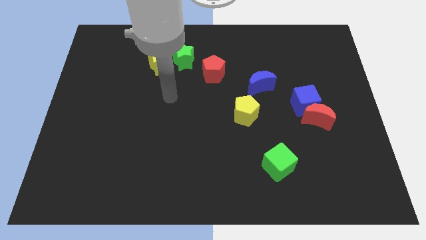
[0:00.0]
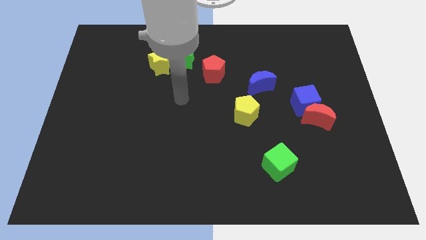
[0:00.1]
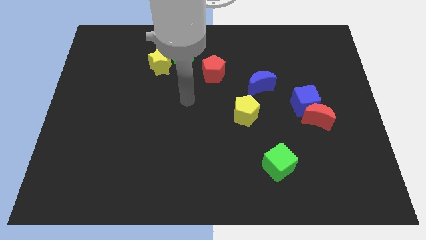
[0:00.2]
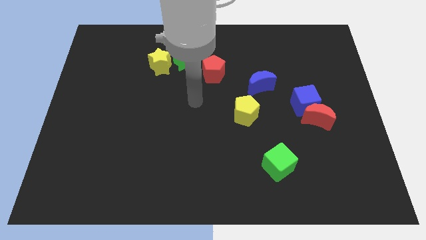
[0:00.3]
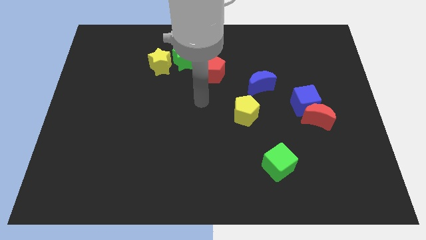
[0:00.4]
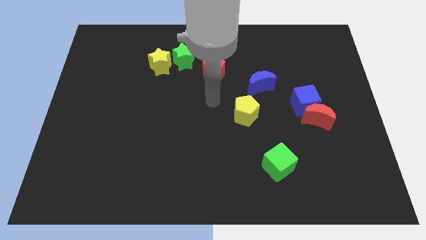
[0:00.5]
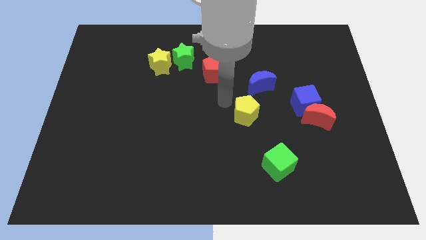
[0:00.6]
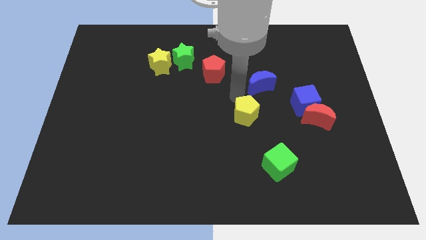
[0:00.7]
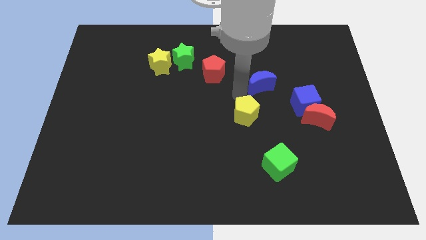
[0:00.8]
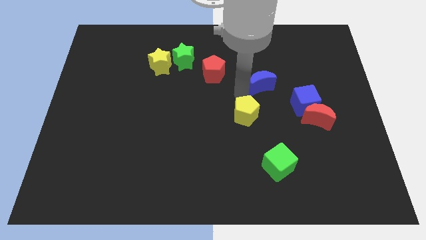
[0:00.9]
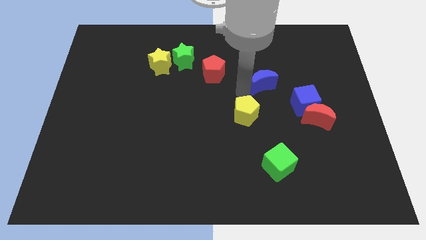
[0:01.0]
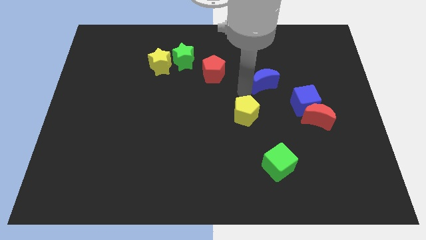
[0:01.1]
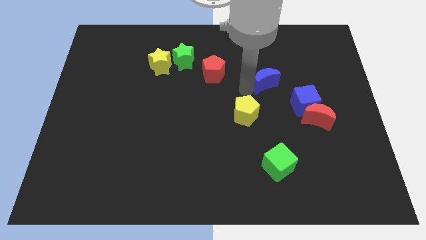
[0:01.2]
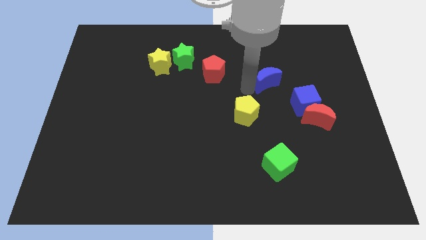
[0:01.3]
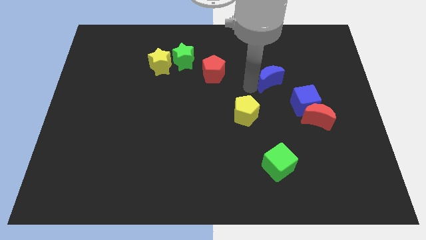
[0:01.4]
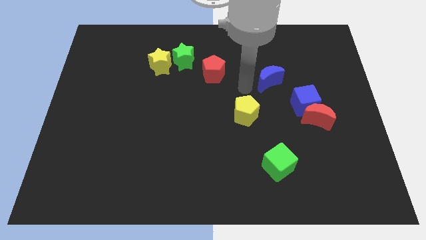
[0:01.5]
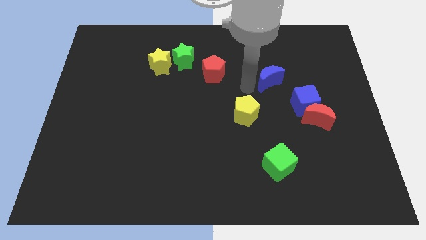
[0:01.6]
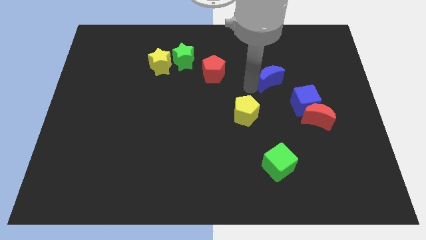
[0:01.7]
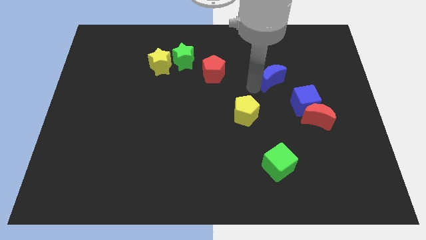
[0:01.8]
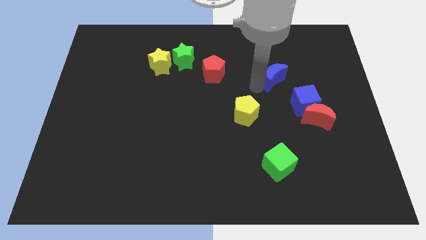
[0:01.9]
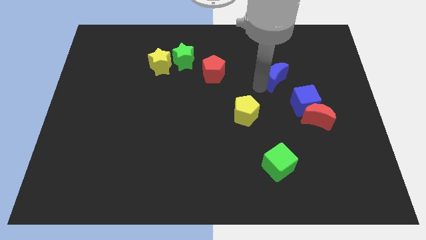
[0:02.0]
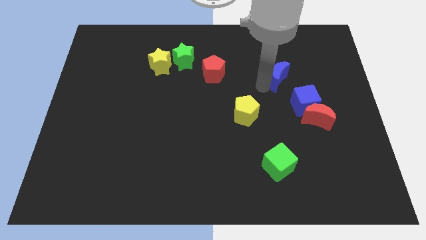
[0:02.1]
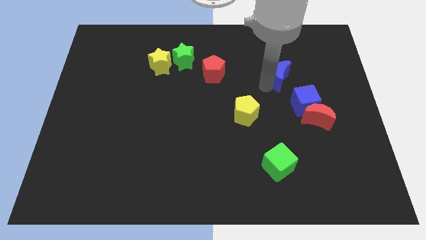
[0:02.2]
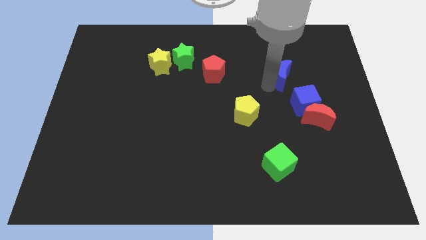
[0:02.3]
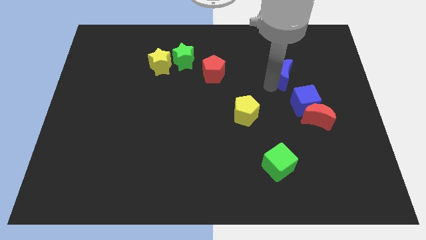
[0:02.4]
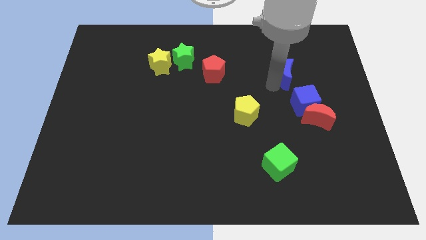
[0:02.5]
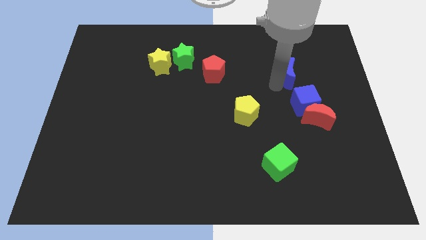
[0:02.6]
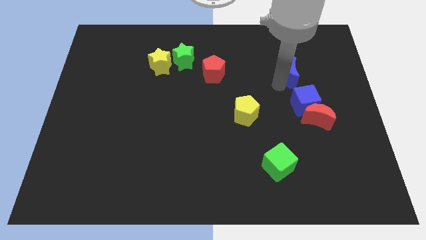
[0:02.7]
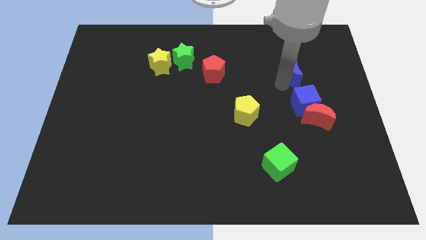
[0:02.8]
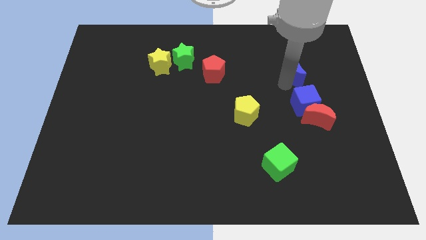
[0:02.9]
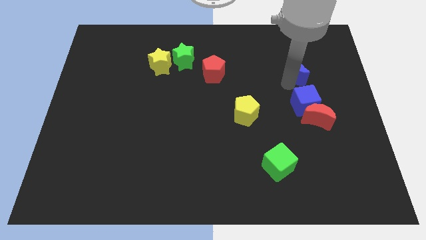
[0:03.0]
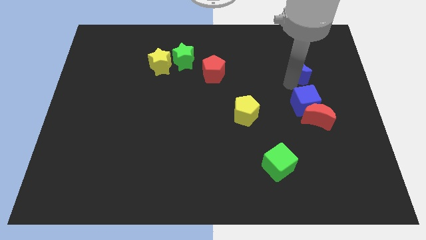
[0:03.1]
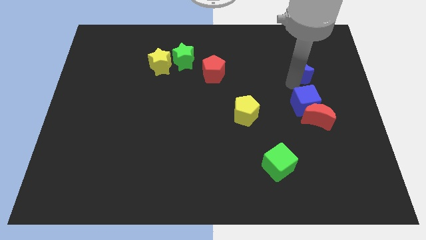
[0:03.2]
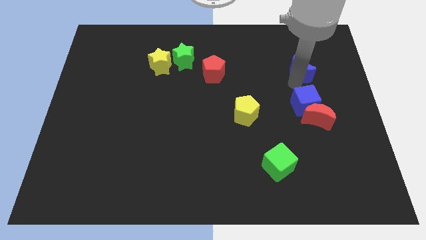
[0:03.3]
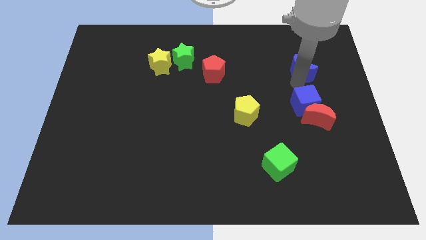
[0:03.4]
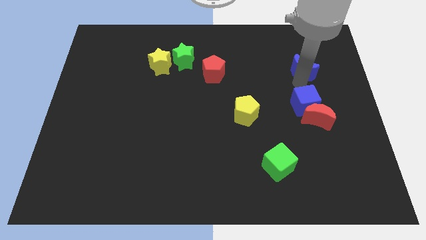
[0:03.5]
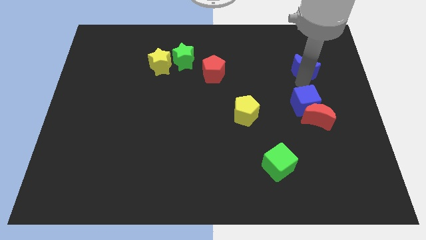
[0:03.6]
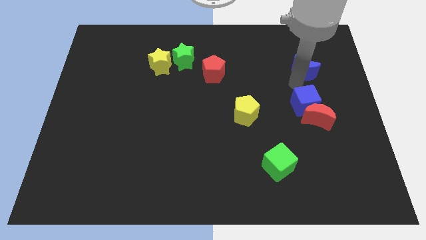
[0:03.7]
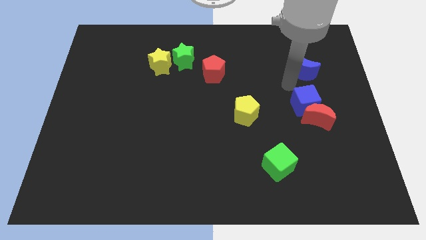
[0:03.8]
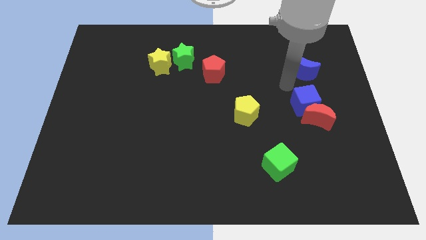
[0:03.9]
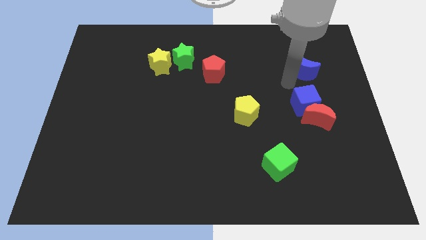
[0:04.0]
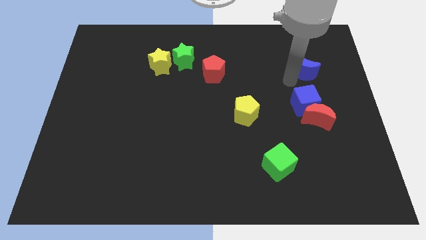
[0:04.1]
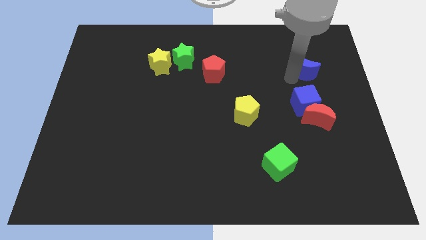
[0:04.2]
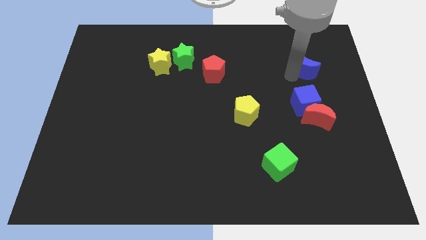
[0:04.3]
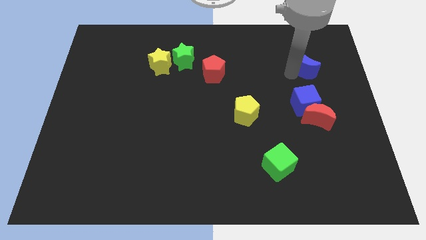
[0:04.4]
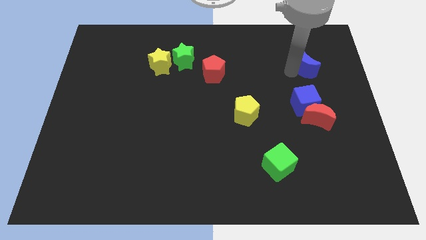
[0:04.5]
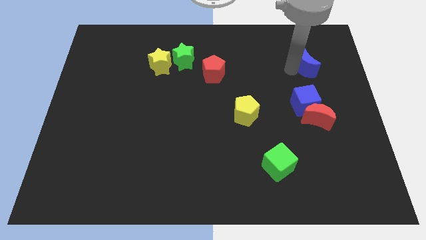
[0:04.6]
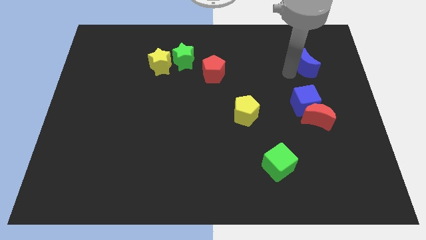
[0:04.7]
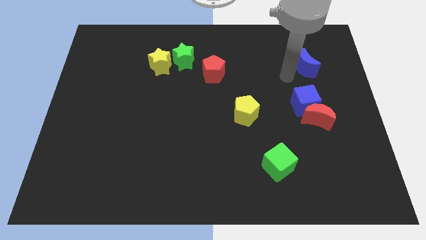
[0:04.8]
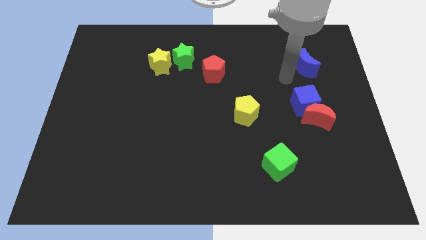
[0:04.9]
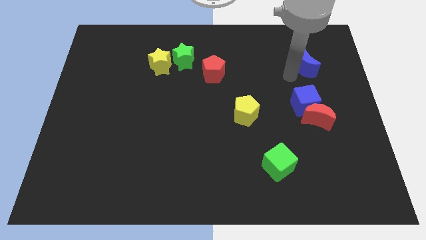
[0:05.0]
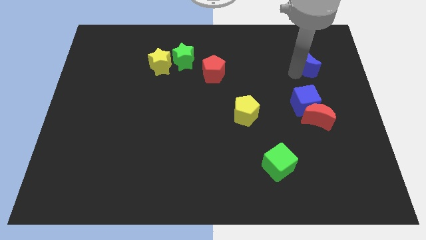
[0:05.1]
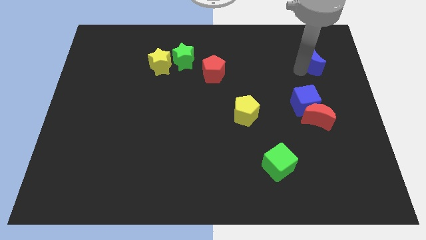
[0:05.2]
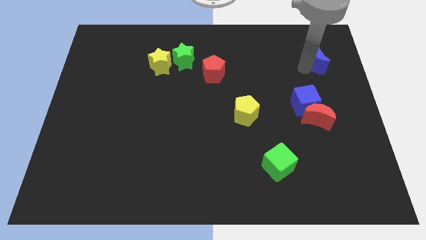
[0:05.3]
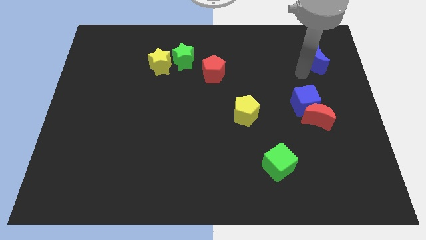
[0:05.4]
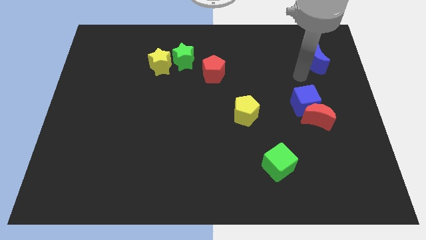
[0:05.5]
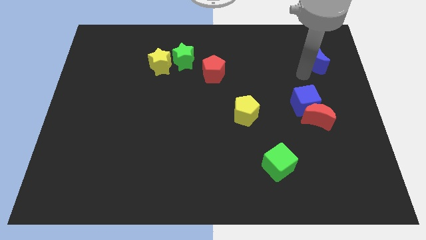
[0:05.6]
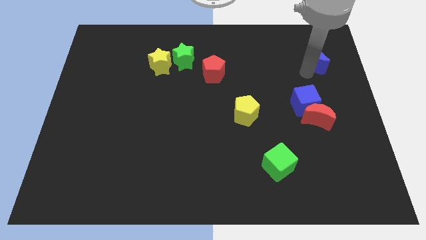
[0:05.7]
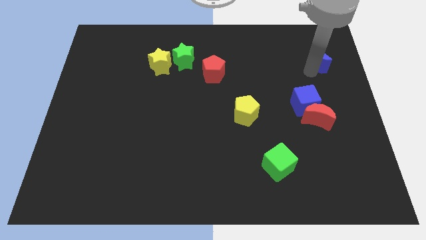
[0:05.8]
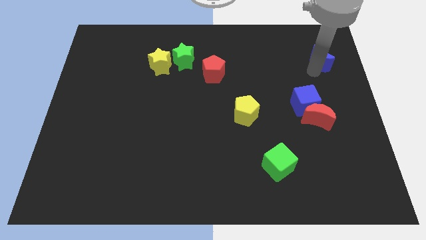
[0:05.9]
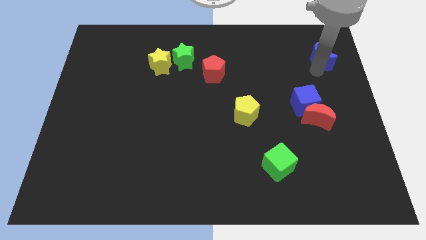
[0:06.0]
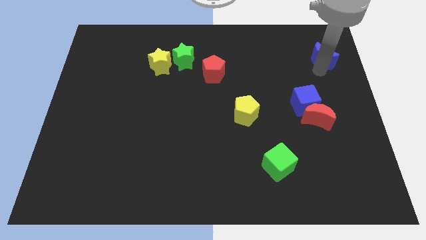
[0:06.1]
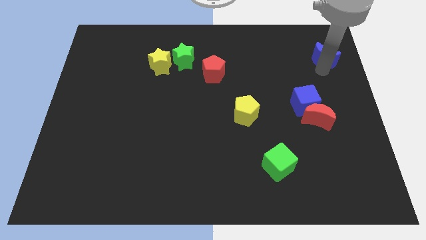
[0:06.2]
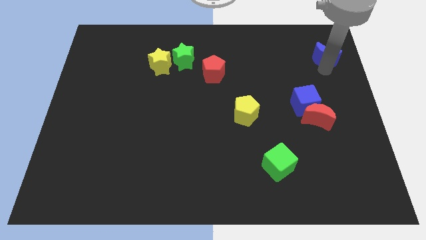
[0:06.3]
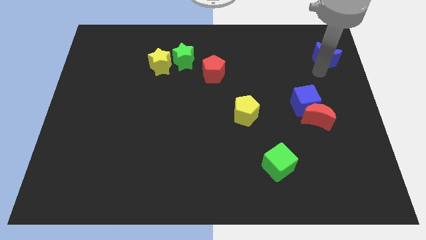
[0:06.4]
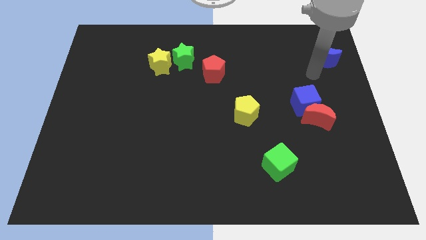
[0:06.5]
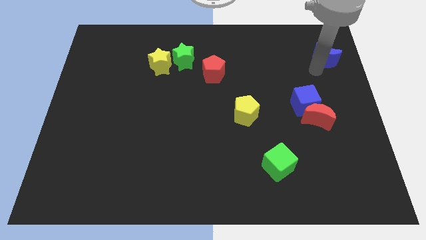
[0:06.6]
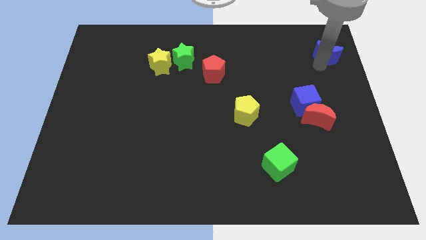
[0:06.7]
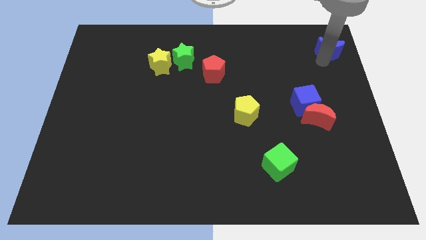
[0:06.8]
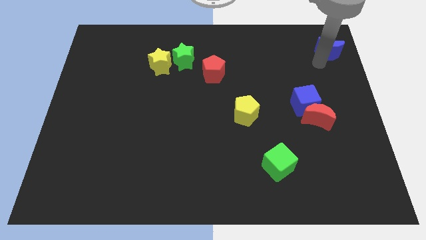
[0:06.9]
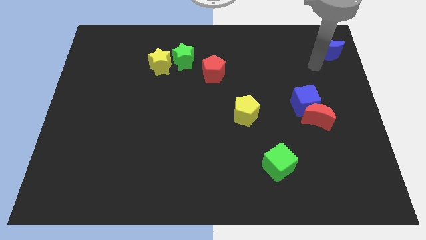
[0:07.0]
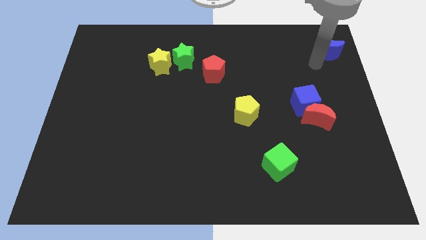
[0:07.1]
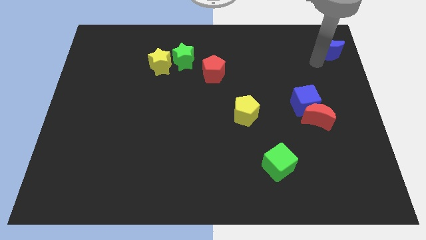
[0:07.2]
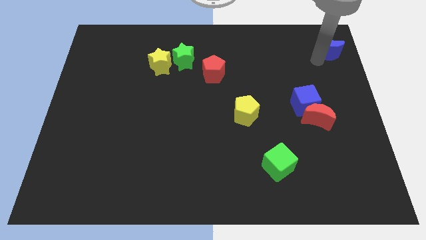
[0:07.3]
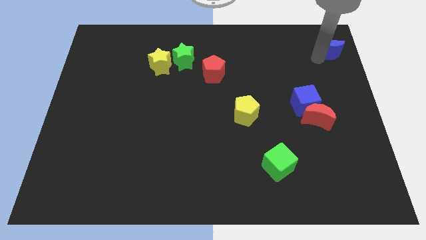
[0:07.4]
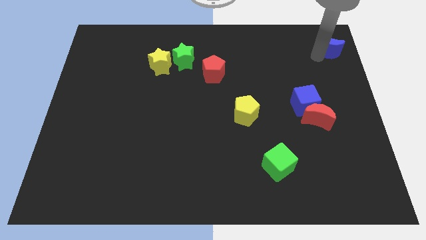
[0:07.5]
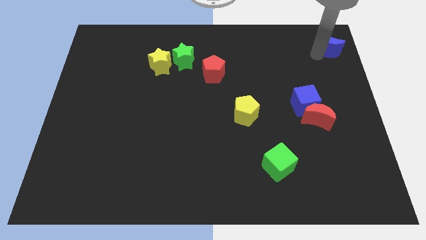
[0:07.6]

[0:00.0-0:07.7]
move the blue moon to the top right corner
